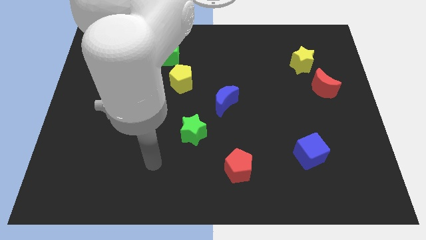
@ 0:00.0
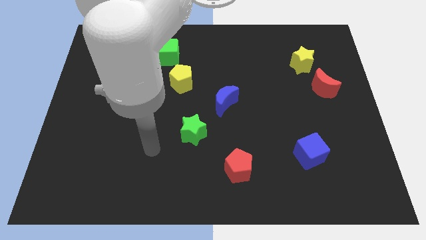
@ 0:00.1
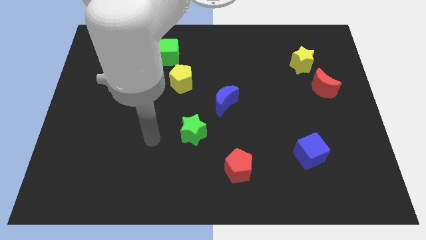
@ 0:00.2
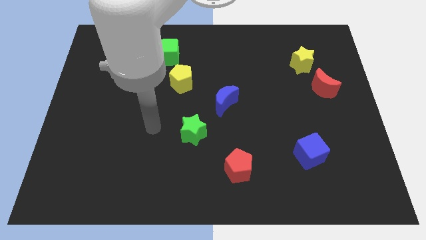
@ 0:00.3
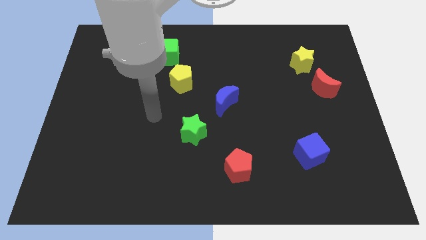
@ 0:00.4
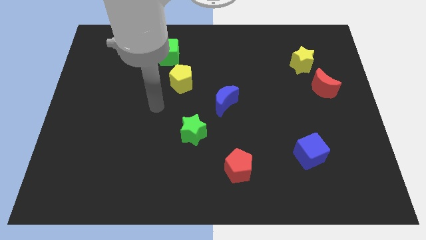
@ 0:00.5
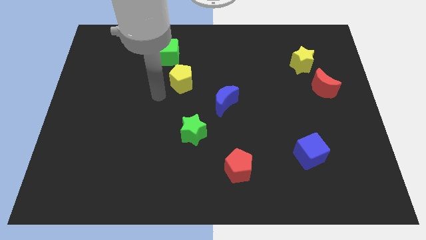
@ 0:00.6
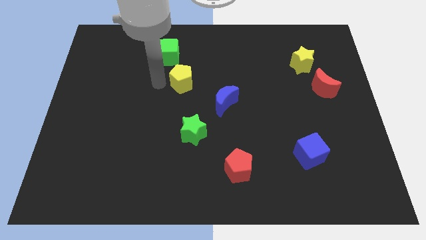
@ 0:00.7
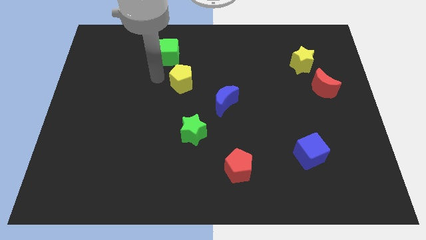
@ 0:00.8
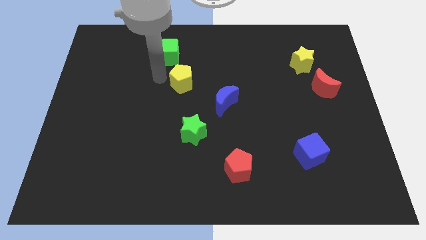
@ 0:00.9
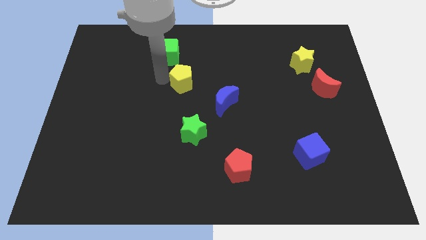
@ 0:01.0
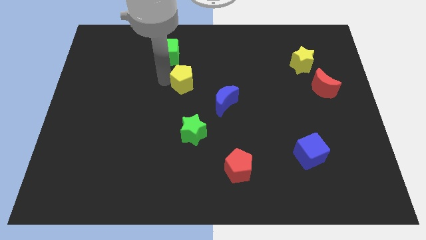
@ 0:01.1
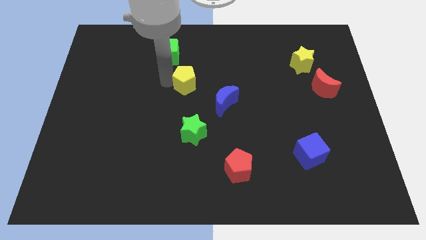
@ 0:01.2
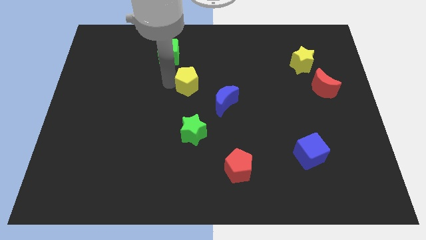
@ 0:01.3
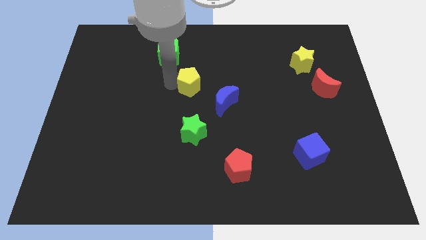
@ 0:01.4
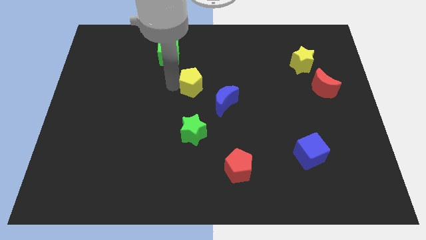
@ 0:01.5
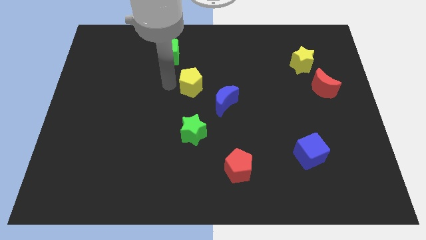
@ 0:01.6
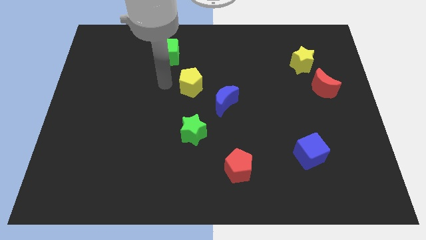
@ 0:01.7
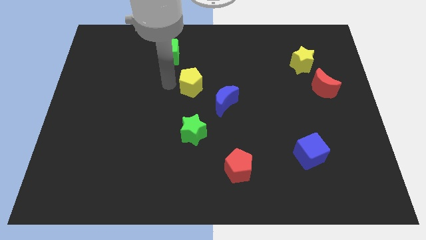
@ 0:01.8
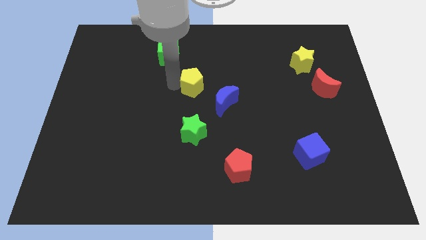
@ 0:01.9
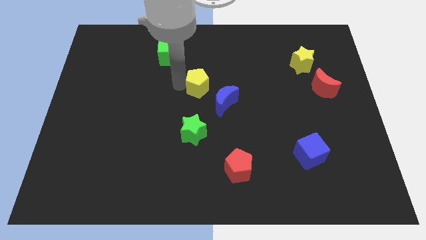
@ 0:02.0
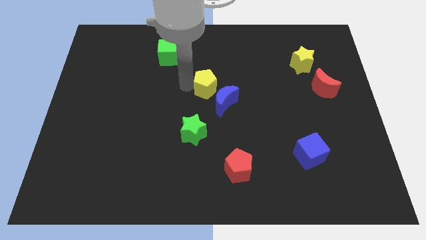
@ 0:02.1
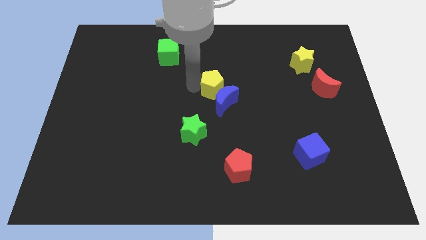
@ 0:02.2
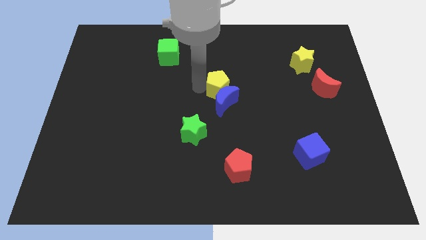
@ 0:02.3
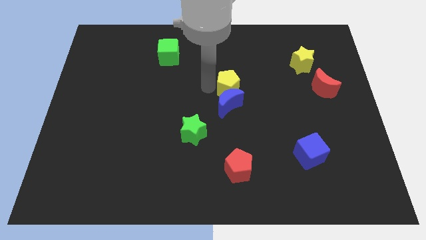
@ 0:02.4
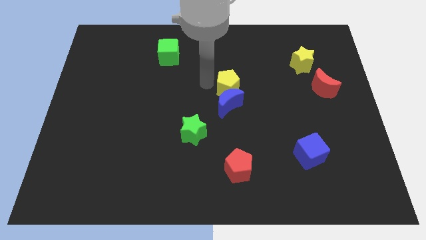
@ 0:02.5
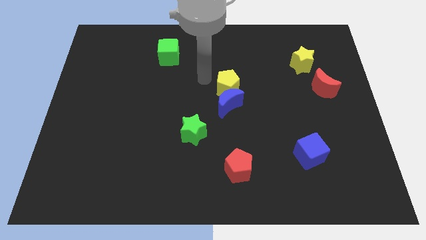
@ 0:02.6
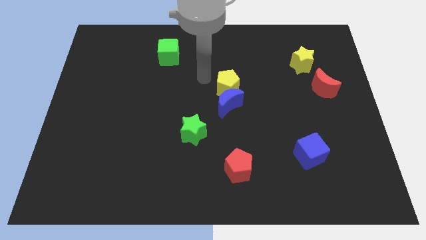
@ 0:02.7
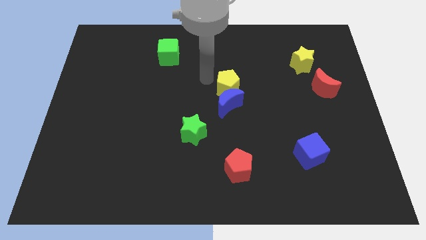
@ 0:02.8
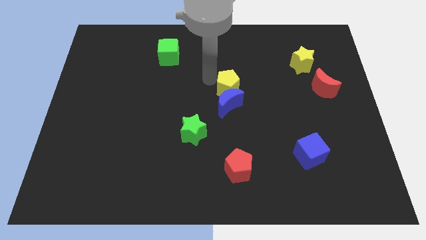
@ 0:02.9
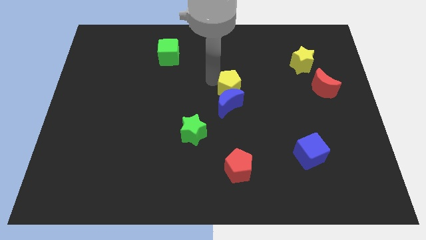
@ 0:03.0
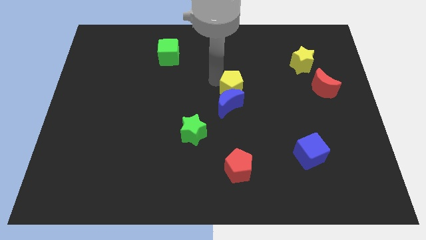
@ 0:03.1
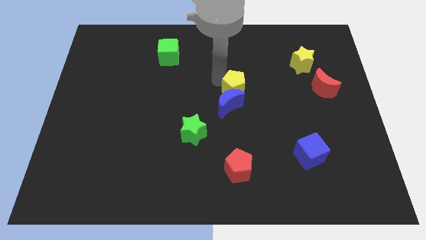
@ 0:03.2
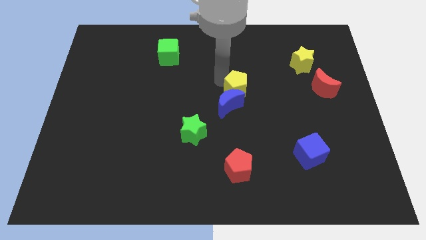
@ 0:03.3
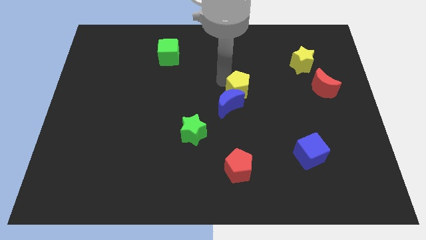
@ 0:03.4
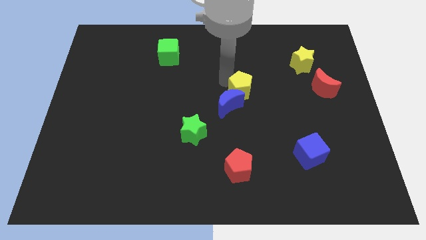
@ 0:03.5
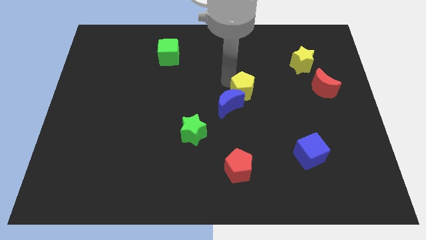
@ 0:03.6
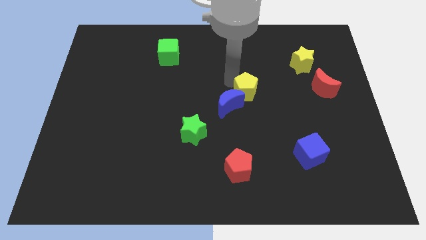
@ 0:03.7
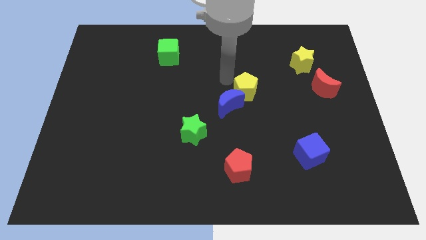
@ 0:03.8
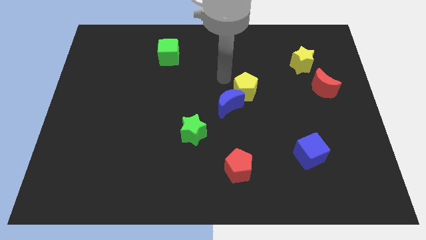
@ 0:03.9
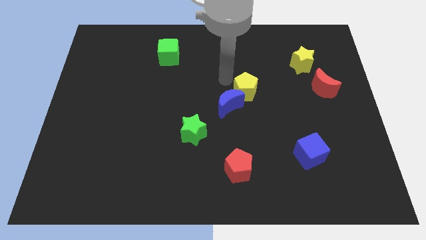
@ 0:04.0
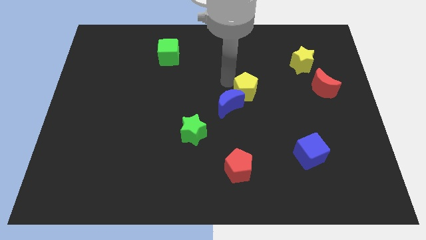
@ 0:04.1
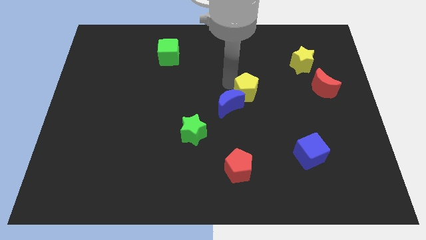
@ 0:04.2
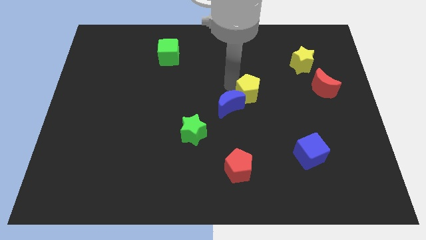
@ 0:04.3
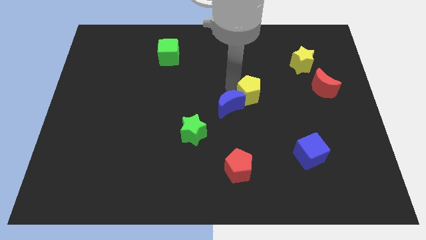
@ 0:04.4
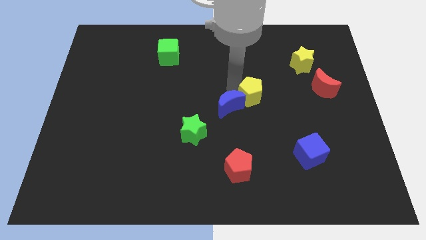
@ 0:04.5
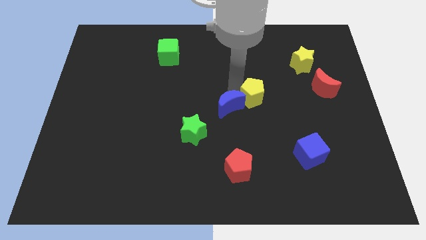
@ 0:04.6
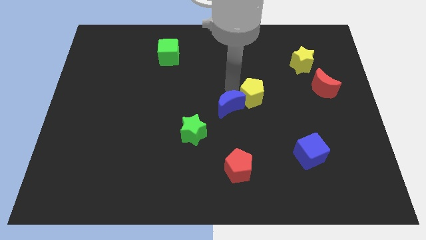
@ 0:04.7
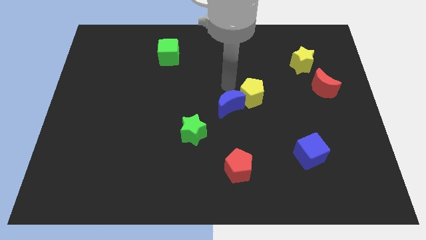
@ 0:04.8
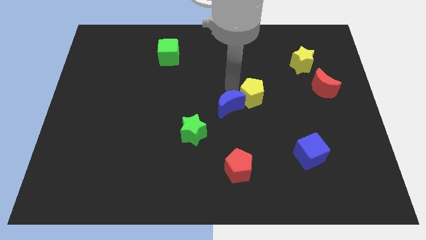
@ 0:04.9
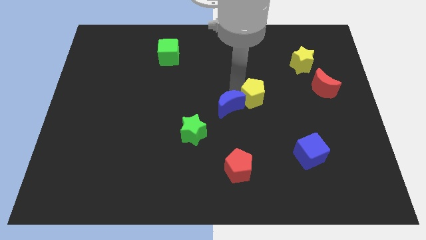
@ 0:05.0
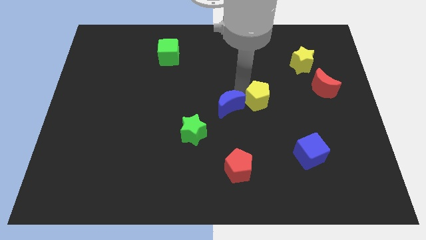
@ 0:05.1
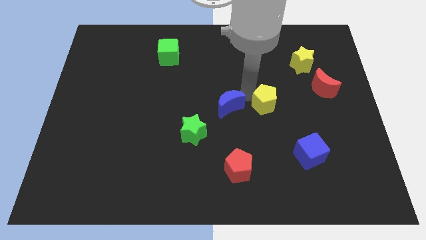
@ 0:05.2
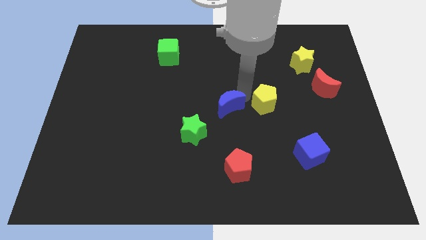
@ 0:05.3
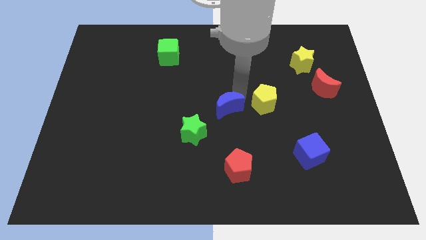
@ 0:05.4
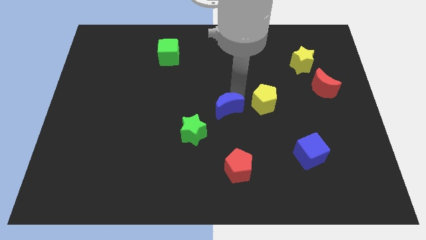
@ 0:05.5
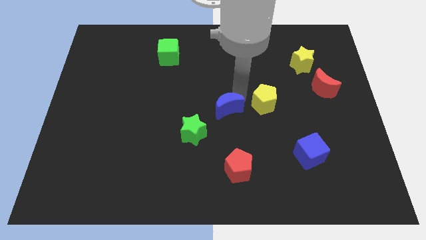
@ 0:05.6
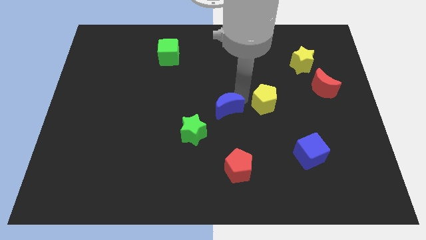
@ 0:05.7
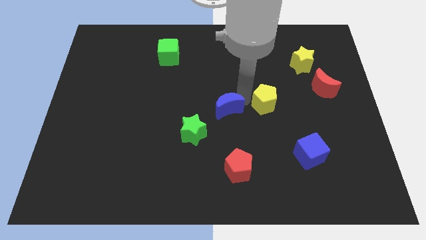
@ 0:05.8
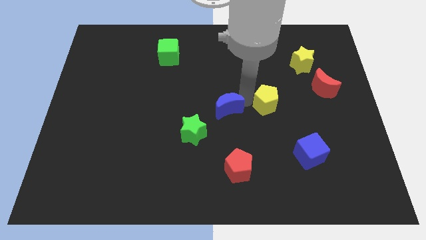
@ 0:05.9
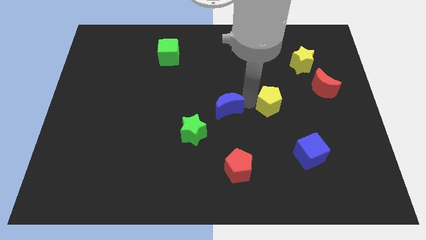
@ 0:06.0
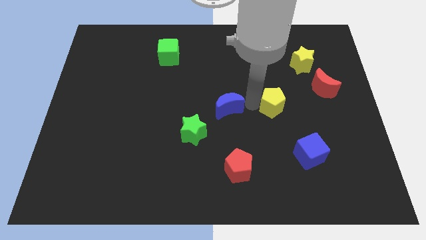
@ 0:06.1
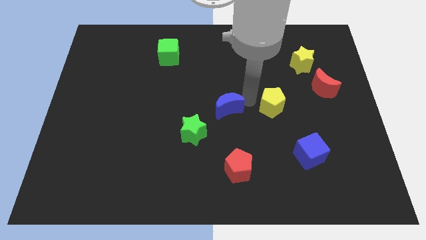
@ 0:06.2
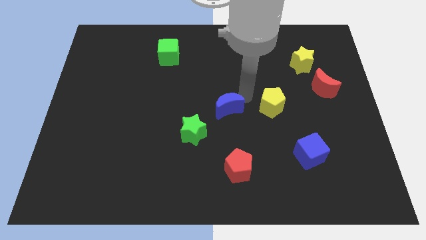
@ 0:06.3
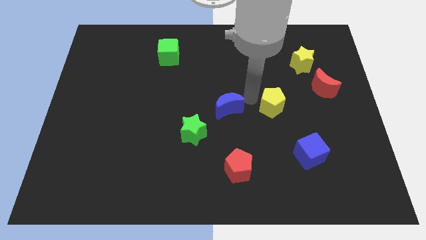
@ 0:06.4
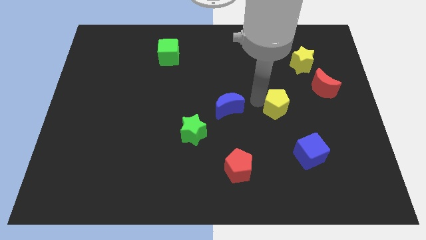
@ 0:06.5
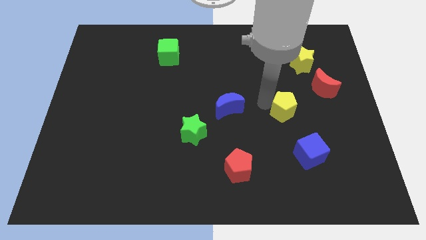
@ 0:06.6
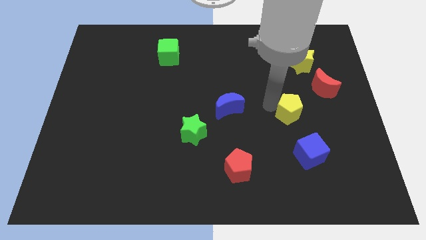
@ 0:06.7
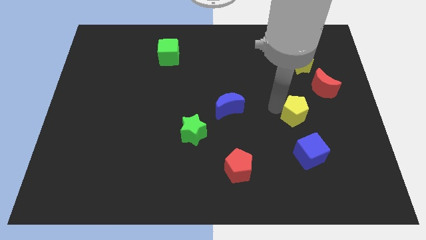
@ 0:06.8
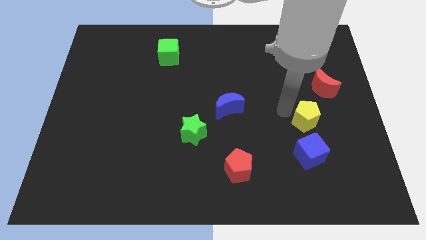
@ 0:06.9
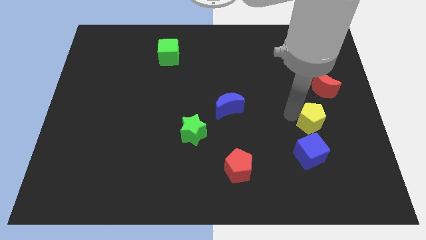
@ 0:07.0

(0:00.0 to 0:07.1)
push the yellow pentagon below the red moon
